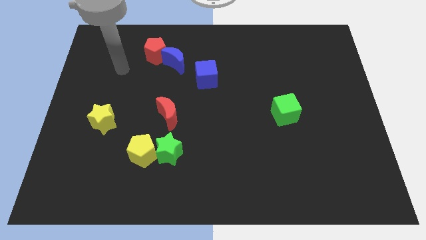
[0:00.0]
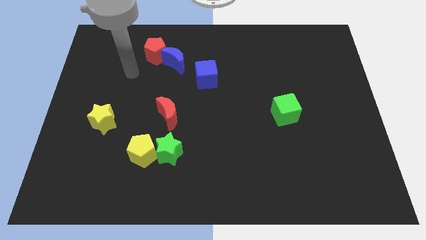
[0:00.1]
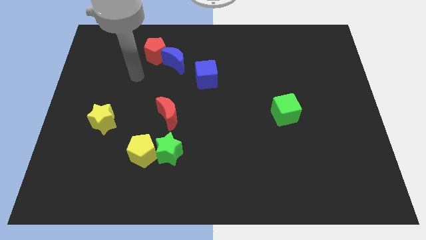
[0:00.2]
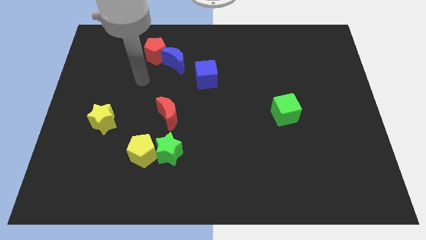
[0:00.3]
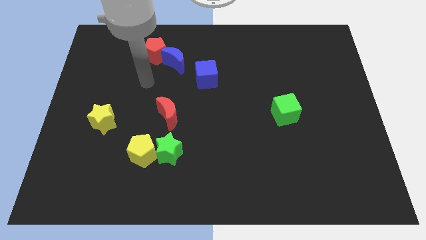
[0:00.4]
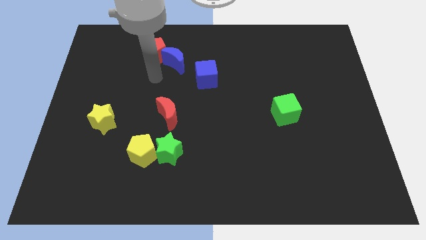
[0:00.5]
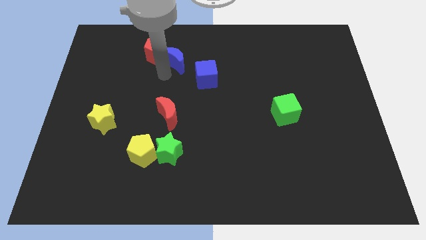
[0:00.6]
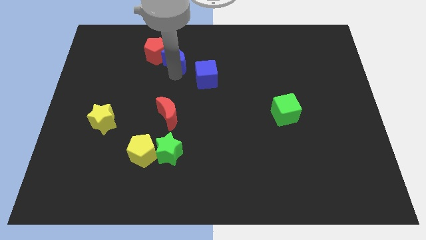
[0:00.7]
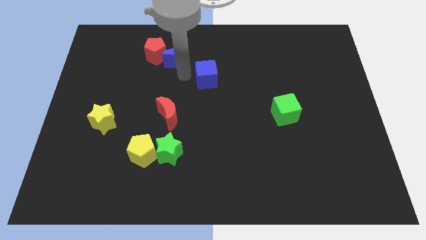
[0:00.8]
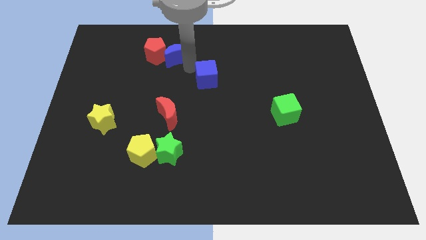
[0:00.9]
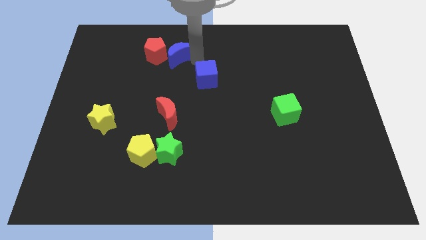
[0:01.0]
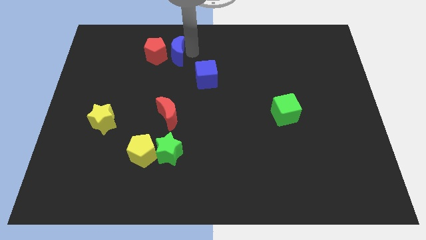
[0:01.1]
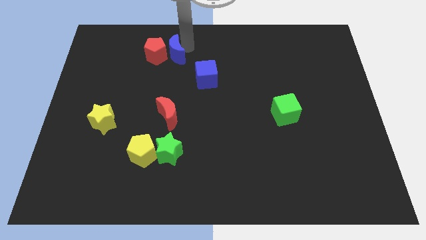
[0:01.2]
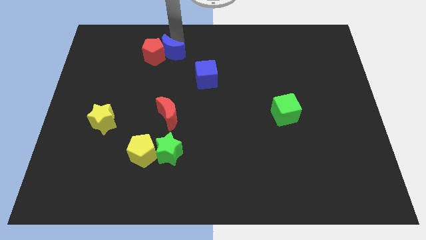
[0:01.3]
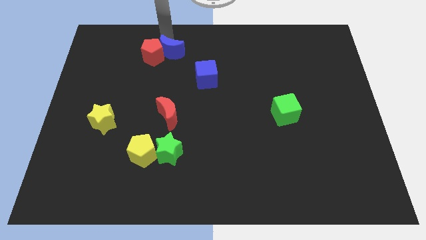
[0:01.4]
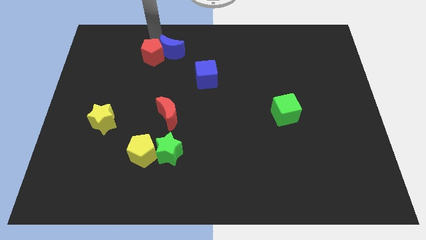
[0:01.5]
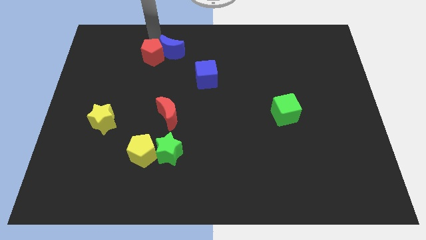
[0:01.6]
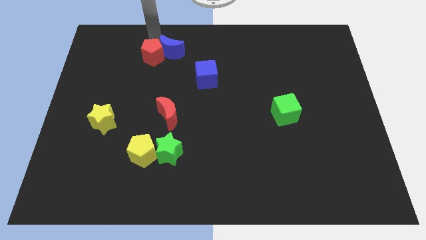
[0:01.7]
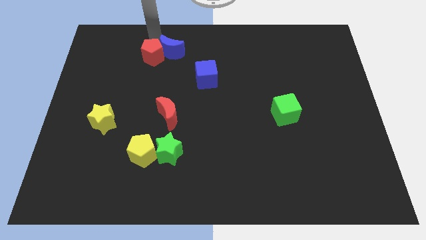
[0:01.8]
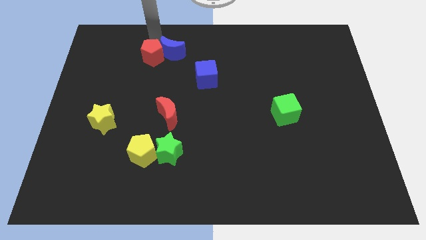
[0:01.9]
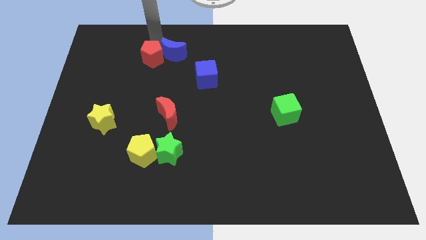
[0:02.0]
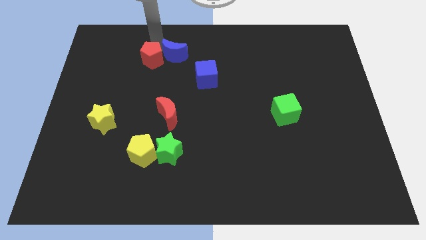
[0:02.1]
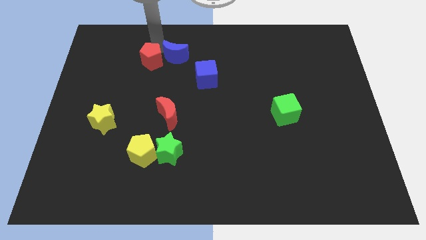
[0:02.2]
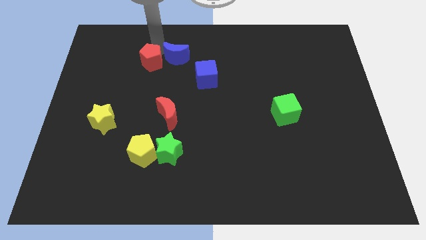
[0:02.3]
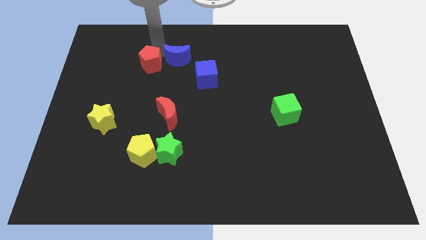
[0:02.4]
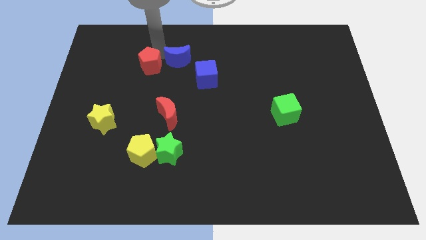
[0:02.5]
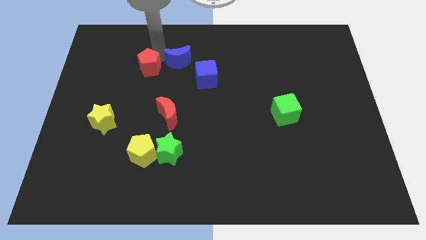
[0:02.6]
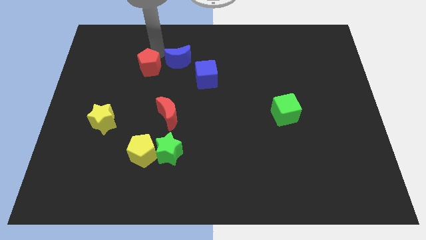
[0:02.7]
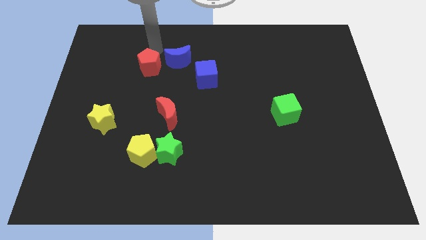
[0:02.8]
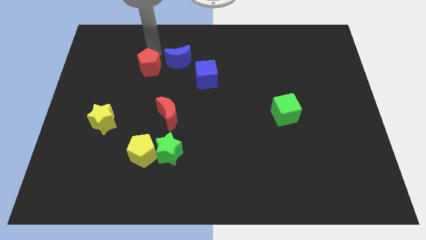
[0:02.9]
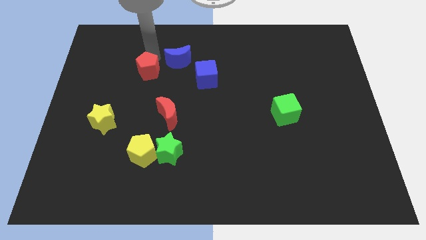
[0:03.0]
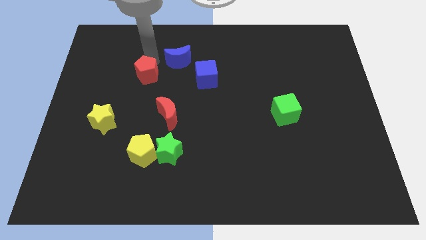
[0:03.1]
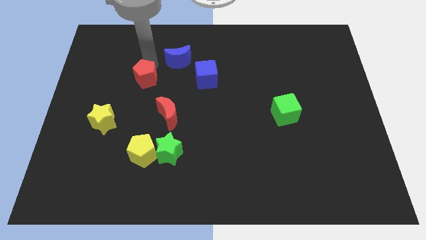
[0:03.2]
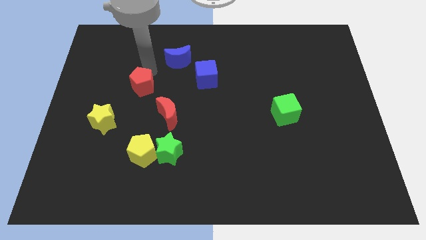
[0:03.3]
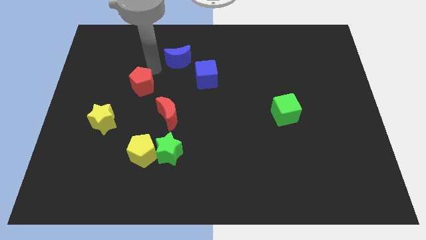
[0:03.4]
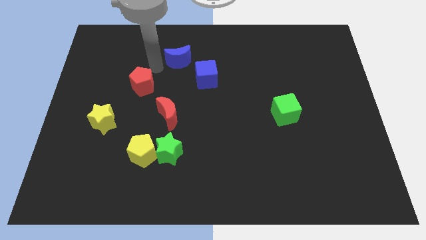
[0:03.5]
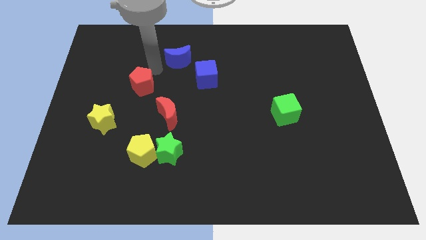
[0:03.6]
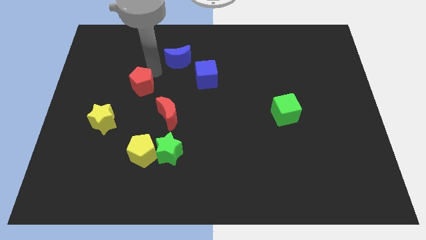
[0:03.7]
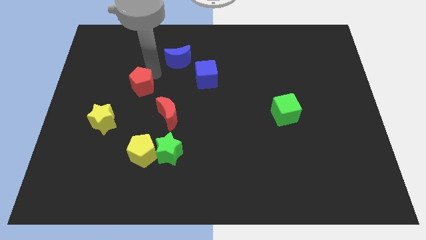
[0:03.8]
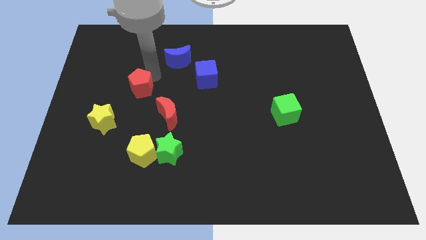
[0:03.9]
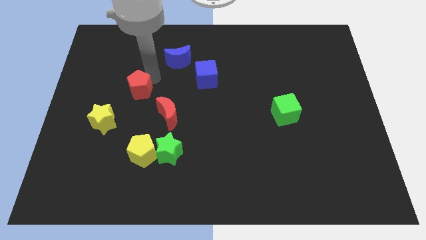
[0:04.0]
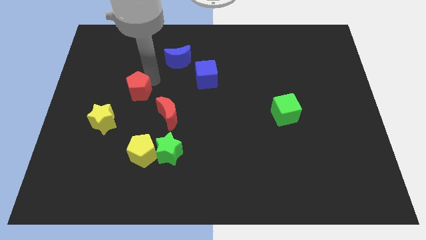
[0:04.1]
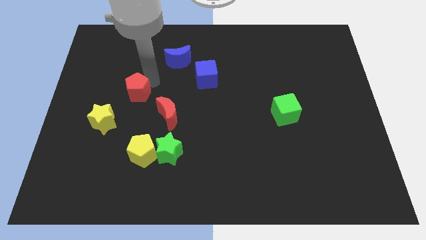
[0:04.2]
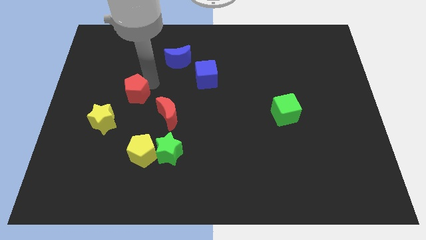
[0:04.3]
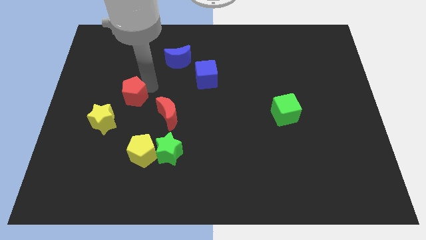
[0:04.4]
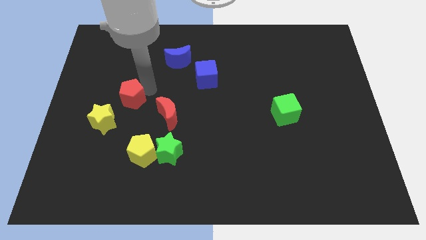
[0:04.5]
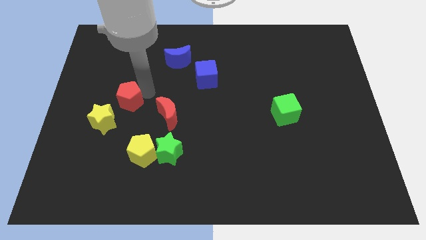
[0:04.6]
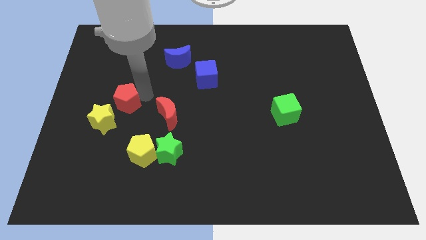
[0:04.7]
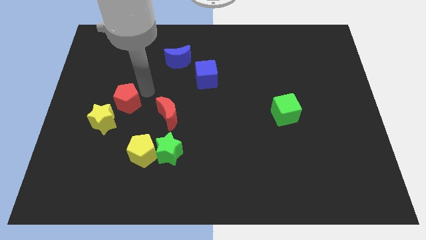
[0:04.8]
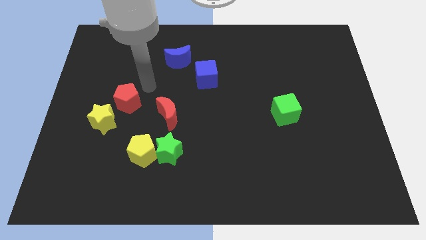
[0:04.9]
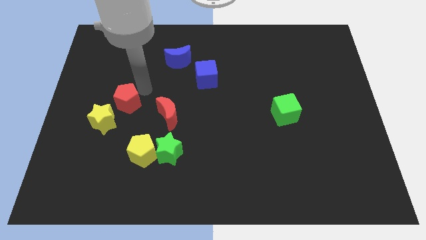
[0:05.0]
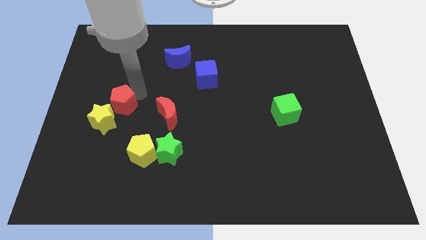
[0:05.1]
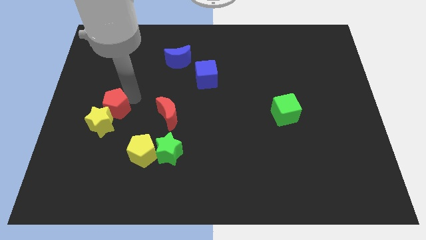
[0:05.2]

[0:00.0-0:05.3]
move the red pentagon close to the yellow star

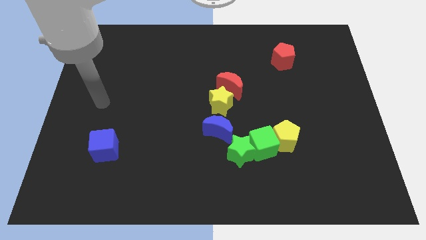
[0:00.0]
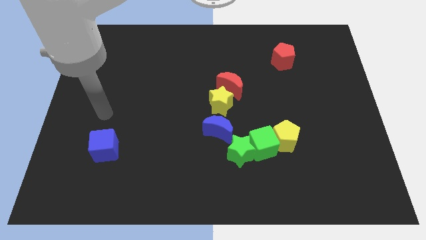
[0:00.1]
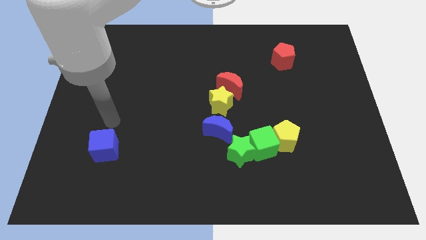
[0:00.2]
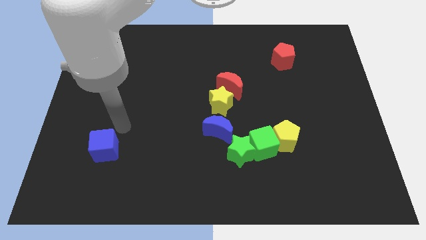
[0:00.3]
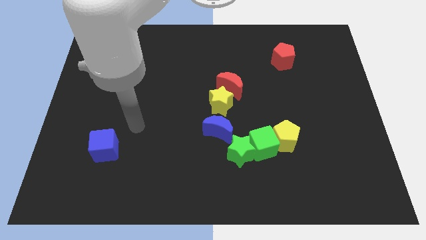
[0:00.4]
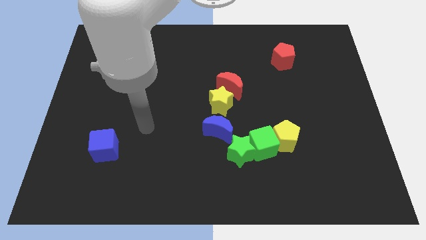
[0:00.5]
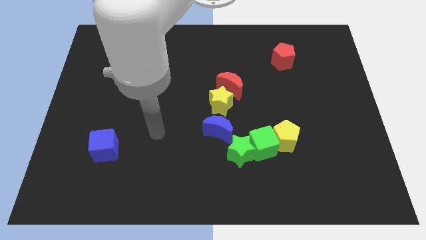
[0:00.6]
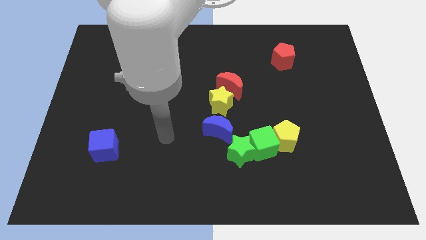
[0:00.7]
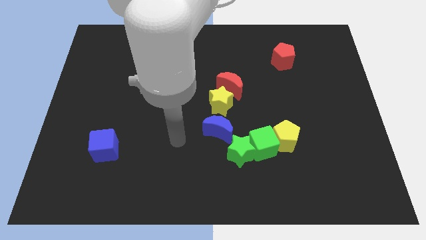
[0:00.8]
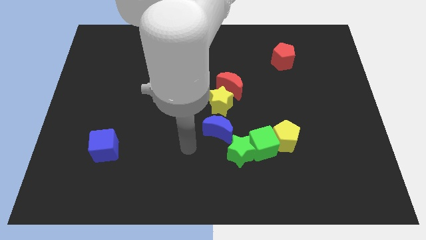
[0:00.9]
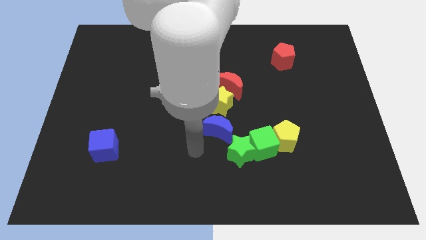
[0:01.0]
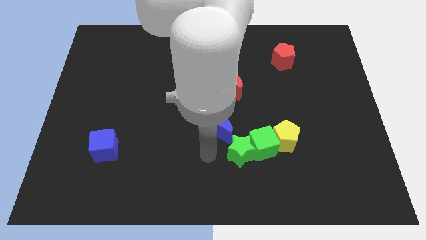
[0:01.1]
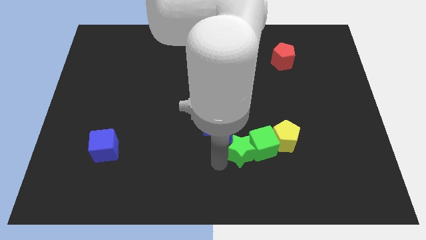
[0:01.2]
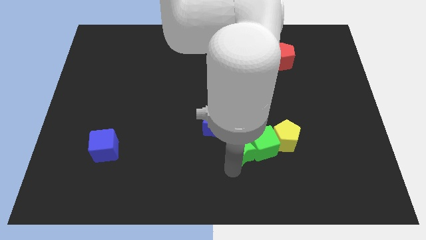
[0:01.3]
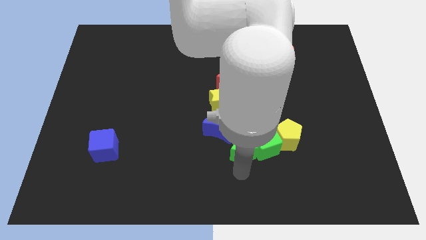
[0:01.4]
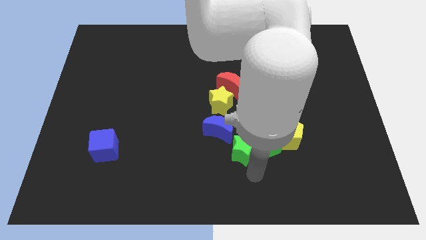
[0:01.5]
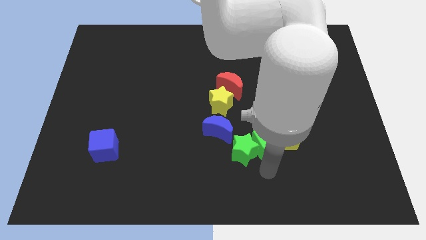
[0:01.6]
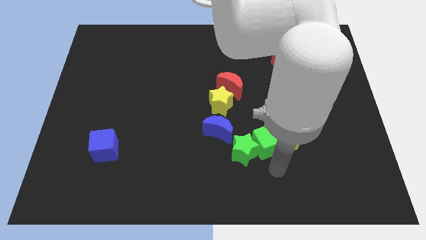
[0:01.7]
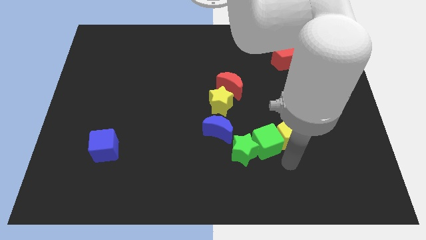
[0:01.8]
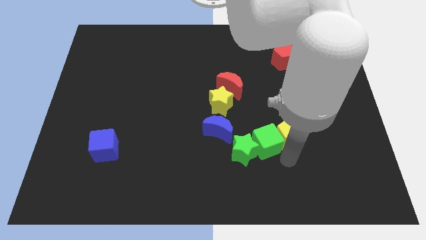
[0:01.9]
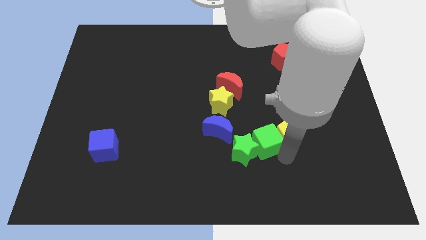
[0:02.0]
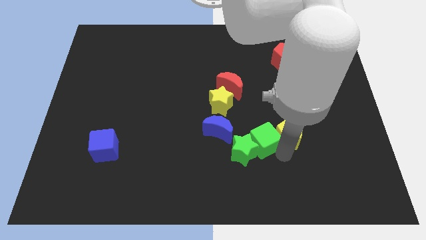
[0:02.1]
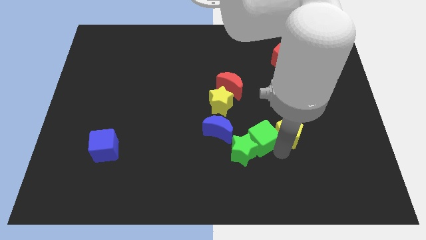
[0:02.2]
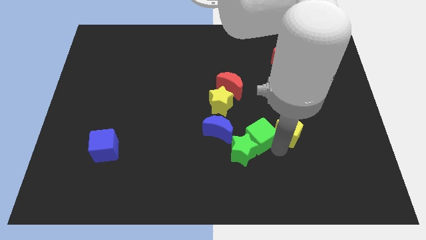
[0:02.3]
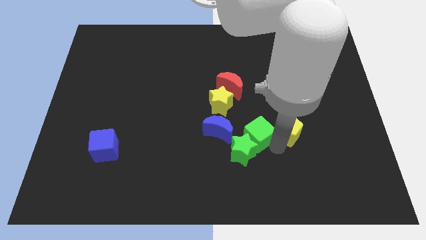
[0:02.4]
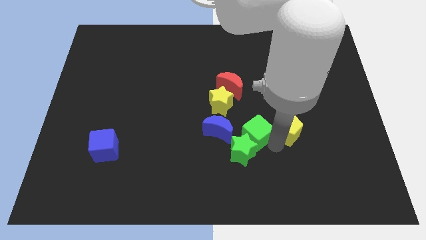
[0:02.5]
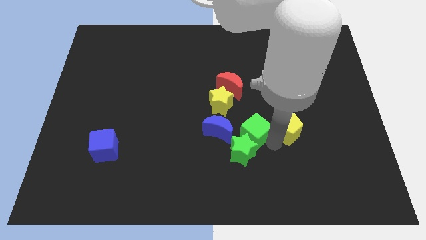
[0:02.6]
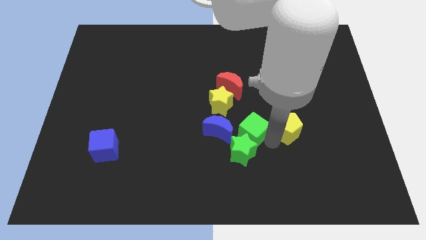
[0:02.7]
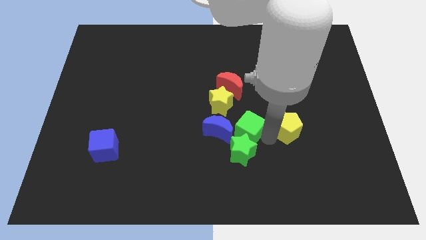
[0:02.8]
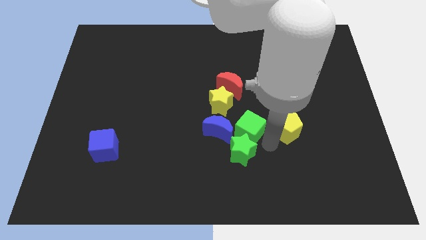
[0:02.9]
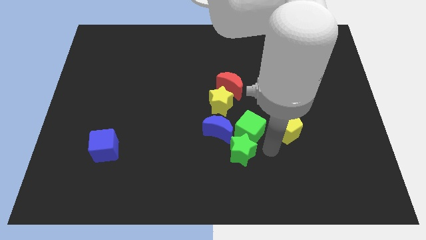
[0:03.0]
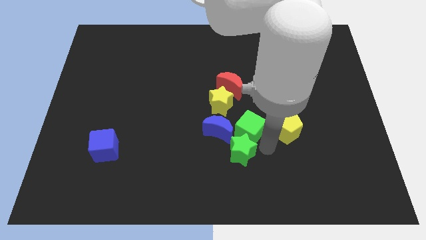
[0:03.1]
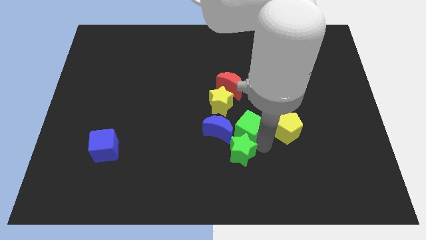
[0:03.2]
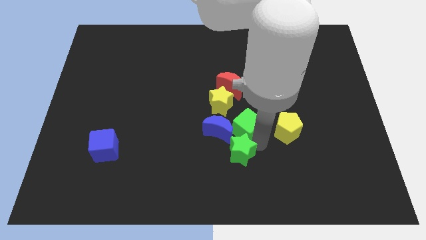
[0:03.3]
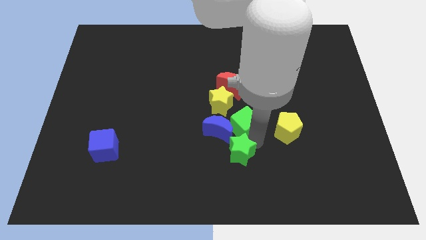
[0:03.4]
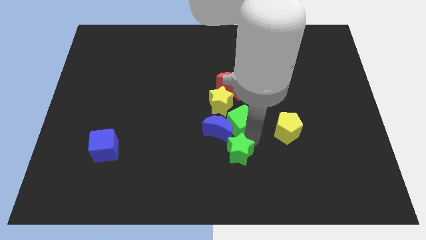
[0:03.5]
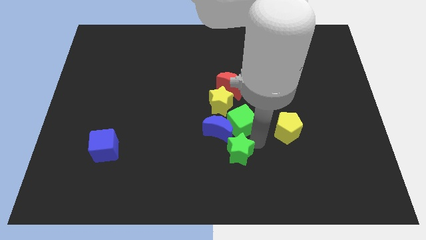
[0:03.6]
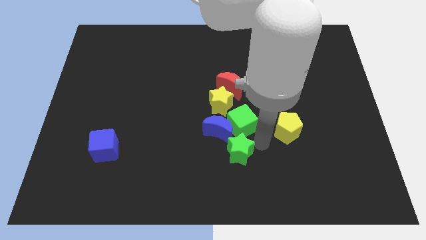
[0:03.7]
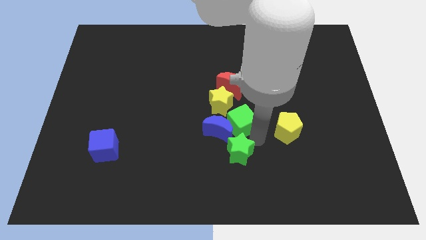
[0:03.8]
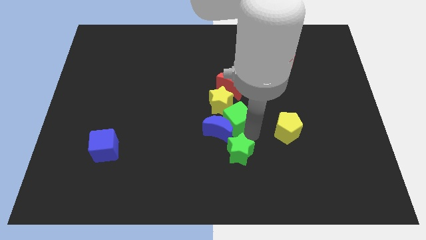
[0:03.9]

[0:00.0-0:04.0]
move the green cube to the yellow star
